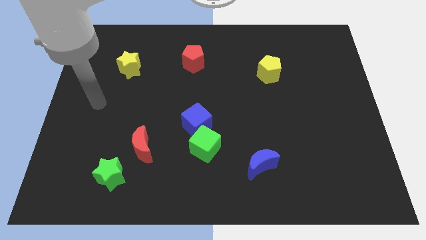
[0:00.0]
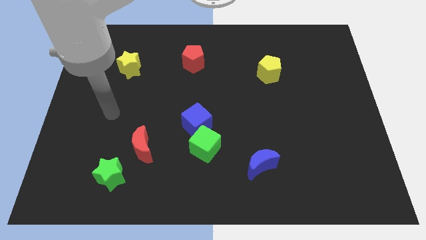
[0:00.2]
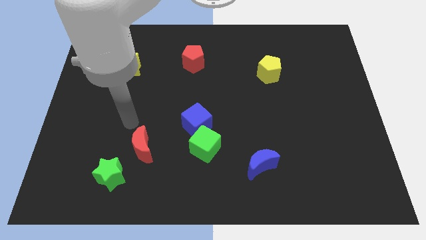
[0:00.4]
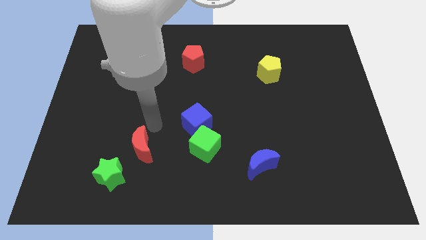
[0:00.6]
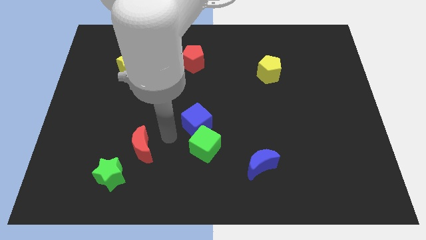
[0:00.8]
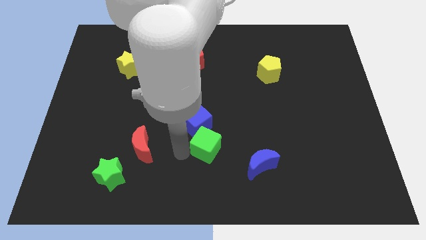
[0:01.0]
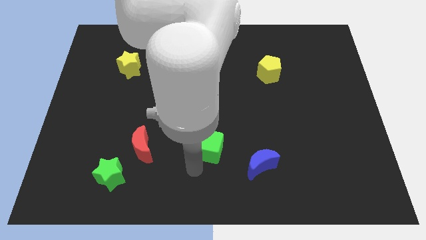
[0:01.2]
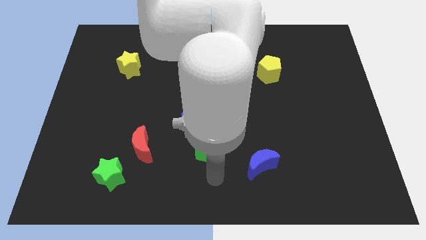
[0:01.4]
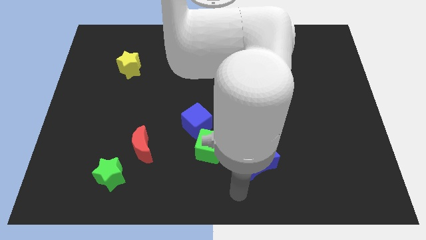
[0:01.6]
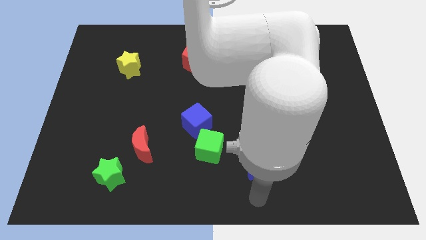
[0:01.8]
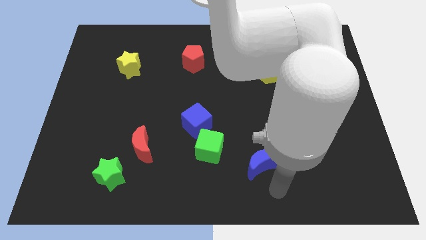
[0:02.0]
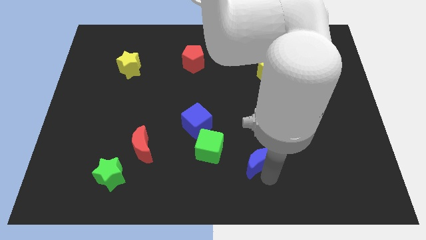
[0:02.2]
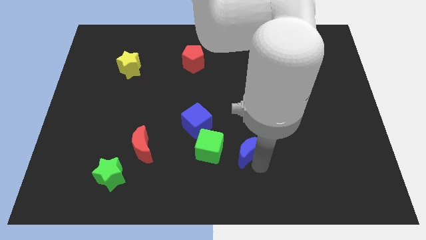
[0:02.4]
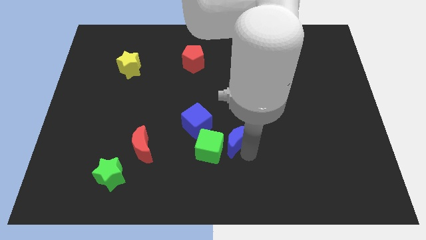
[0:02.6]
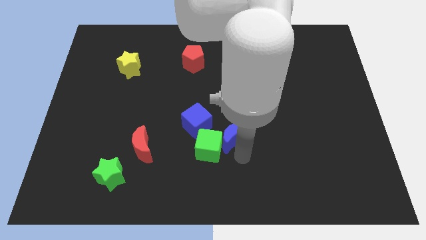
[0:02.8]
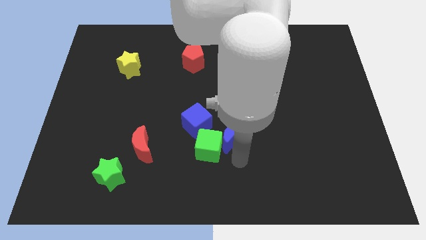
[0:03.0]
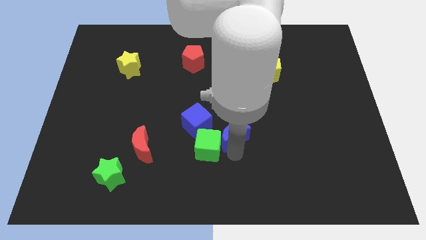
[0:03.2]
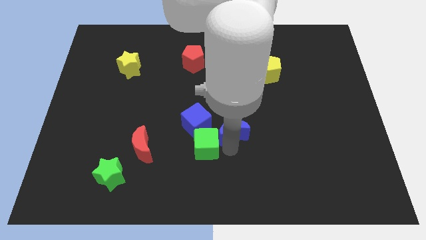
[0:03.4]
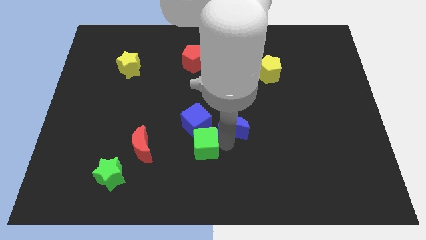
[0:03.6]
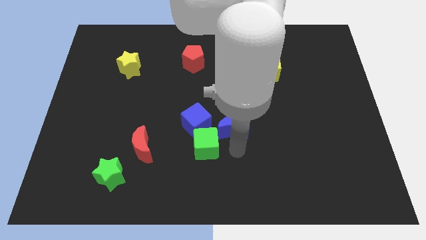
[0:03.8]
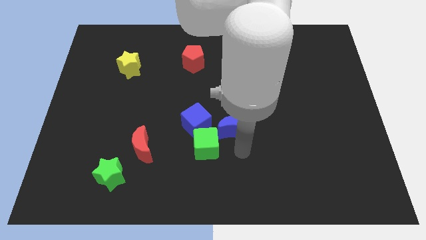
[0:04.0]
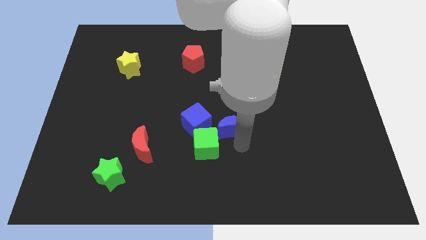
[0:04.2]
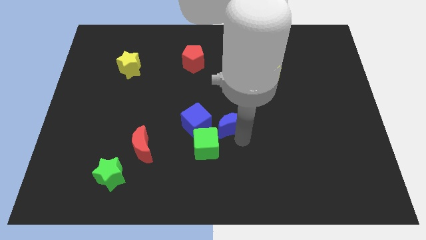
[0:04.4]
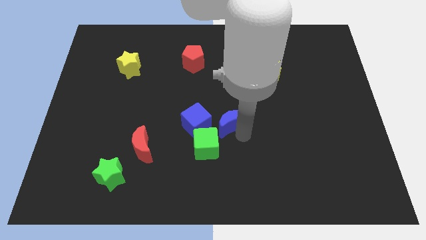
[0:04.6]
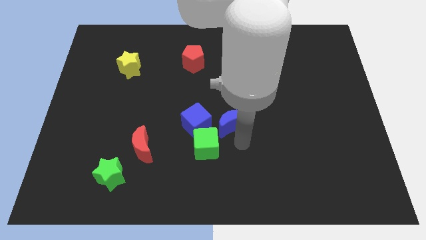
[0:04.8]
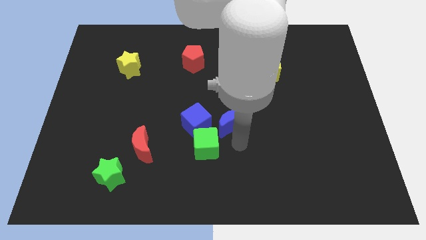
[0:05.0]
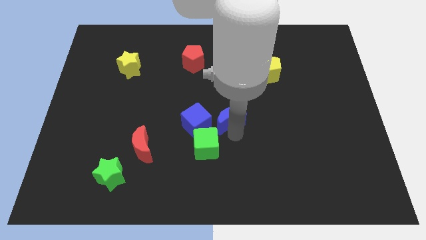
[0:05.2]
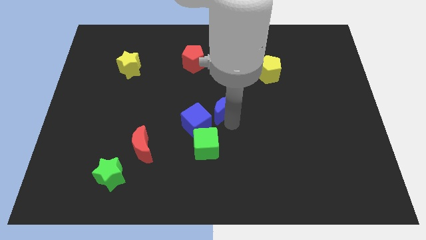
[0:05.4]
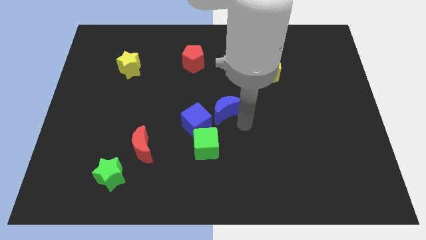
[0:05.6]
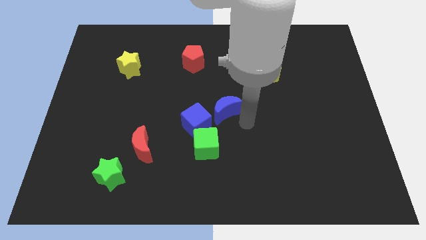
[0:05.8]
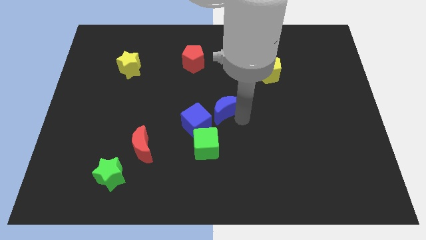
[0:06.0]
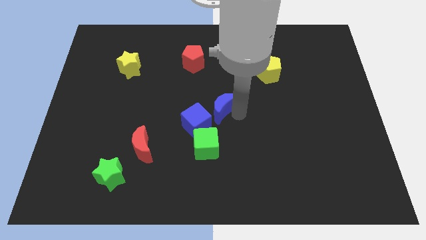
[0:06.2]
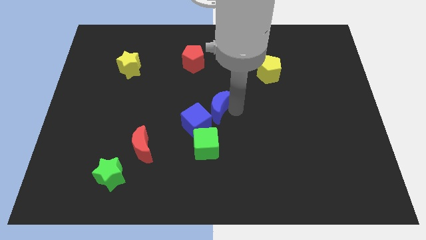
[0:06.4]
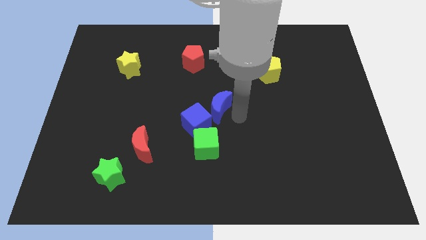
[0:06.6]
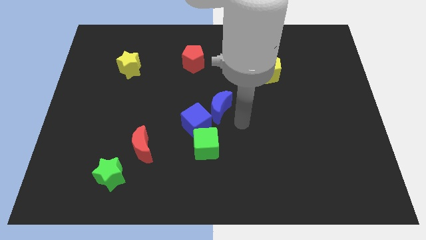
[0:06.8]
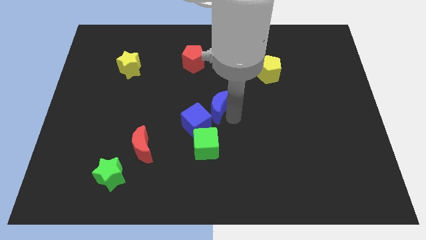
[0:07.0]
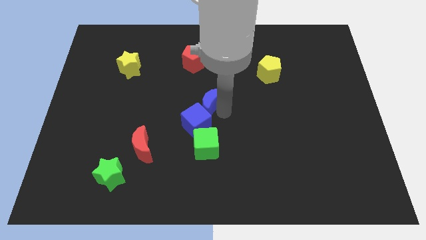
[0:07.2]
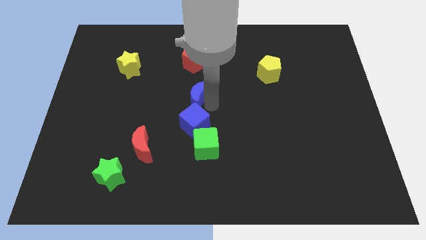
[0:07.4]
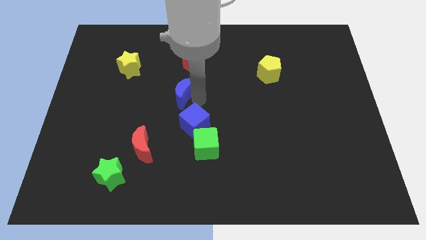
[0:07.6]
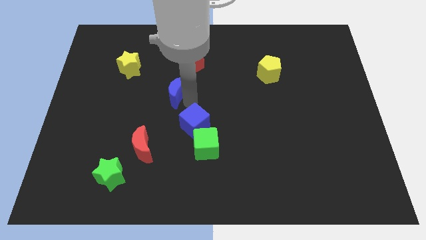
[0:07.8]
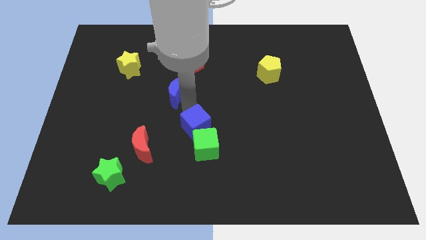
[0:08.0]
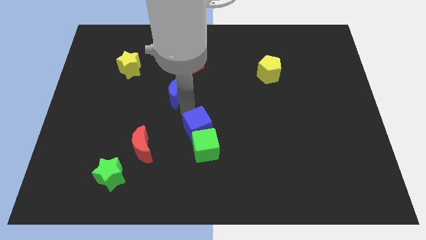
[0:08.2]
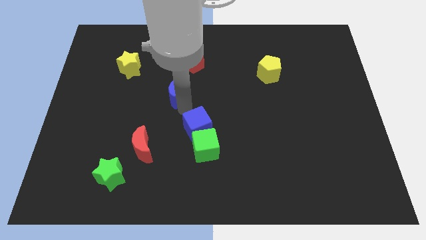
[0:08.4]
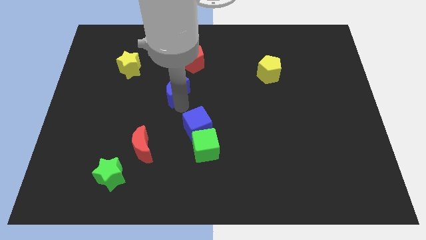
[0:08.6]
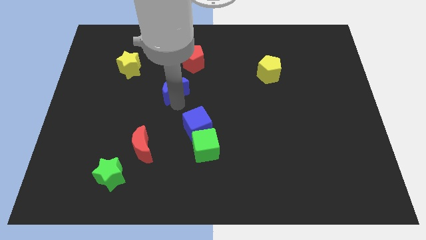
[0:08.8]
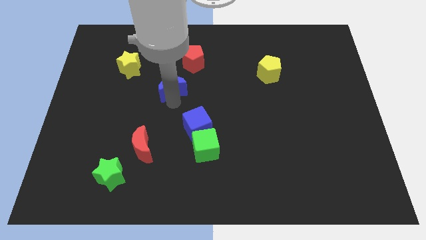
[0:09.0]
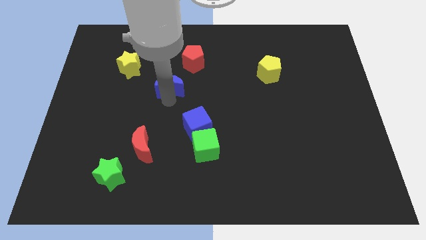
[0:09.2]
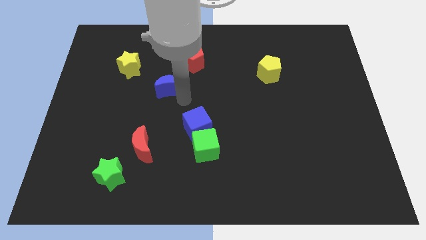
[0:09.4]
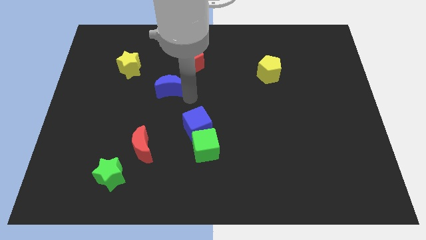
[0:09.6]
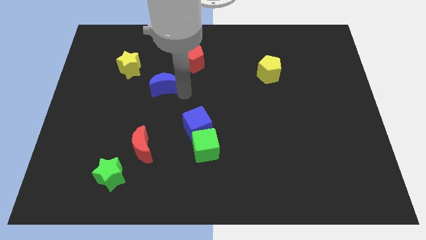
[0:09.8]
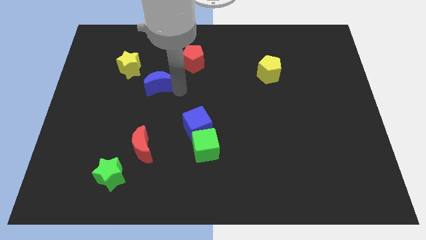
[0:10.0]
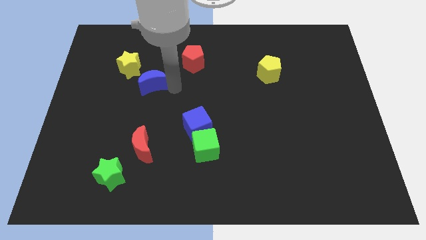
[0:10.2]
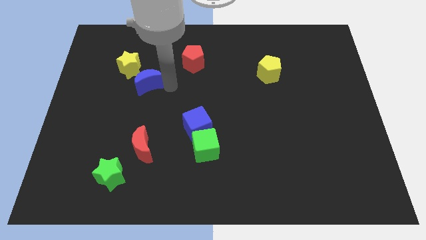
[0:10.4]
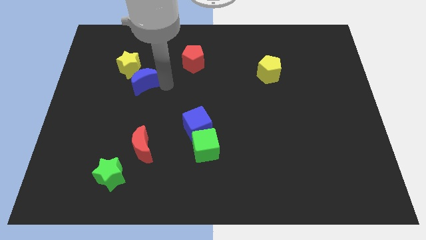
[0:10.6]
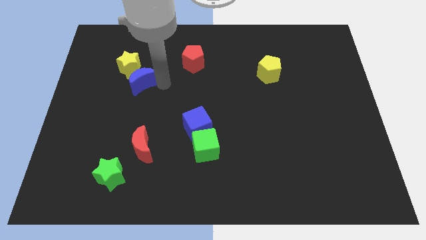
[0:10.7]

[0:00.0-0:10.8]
slide the blue moon to the yellow star

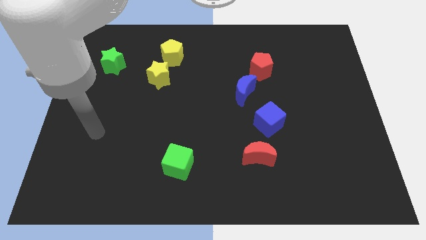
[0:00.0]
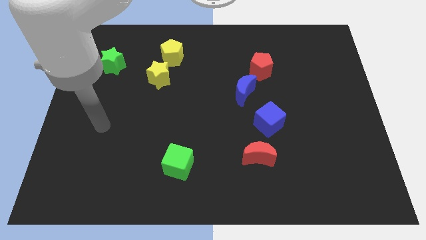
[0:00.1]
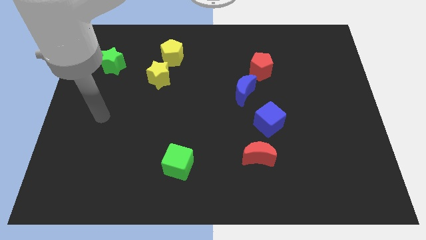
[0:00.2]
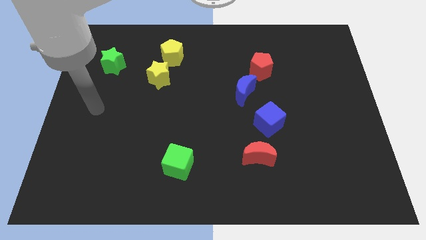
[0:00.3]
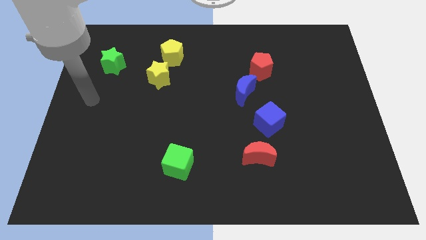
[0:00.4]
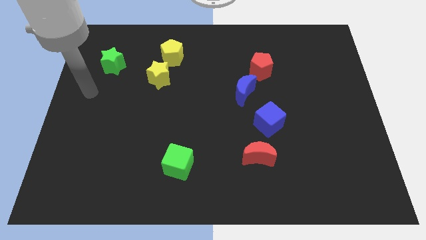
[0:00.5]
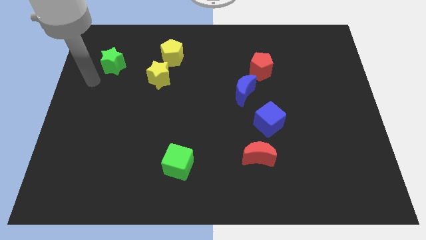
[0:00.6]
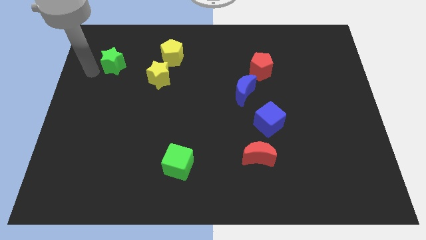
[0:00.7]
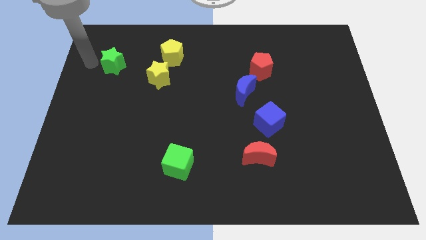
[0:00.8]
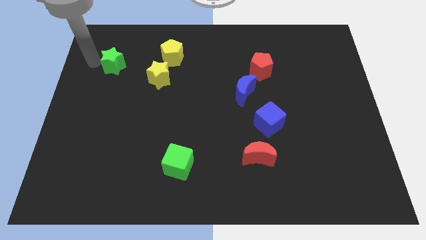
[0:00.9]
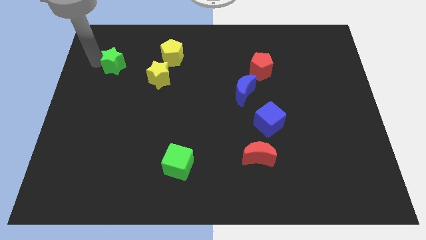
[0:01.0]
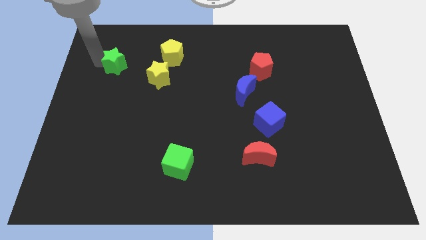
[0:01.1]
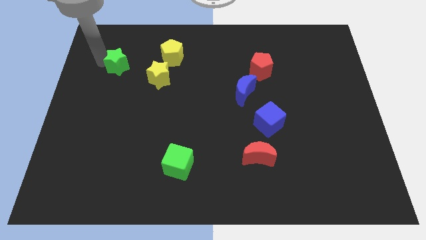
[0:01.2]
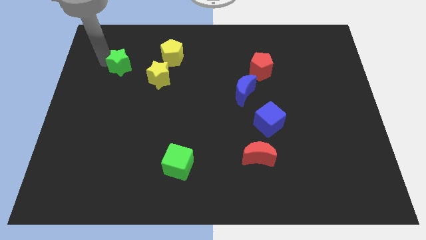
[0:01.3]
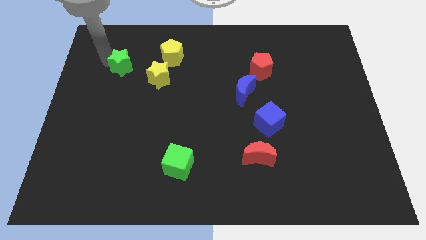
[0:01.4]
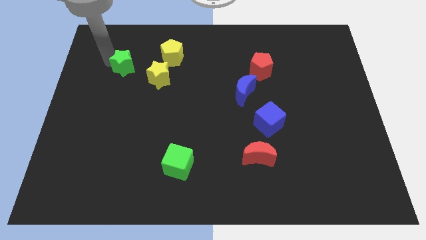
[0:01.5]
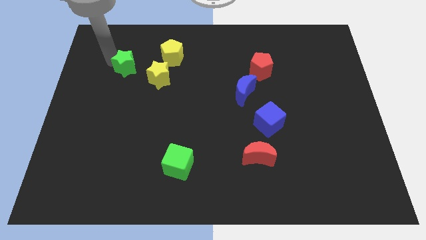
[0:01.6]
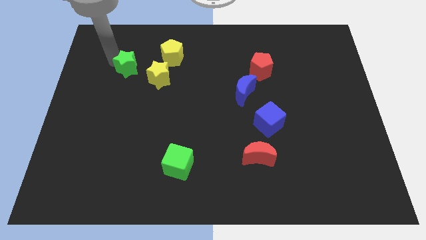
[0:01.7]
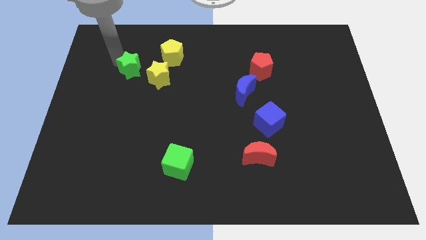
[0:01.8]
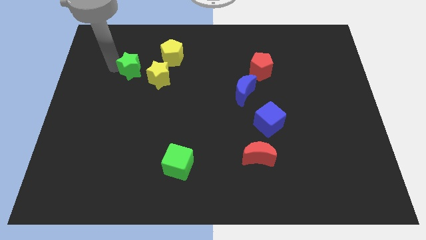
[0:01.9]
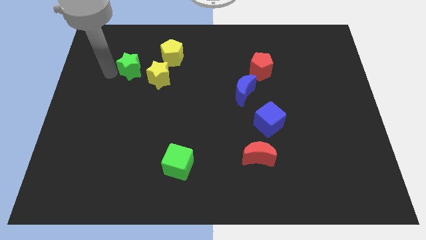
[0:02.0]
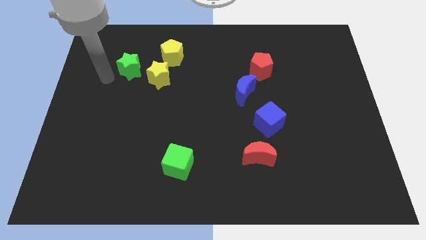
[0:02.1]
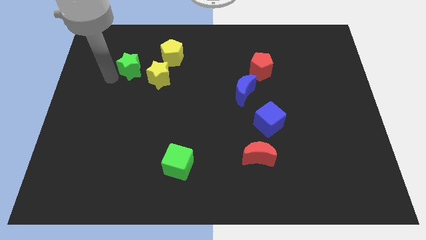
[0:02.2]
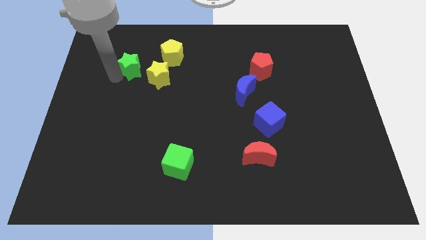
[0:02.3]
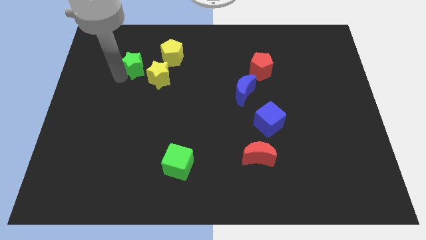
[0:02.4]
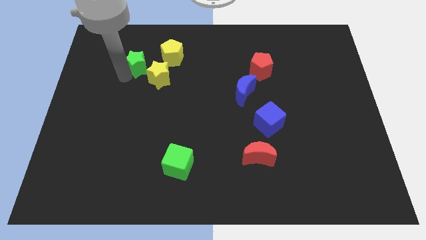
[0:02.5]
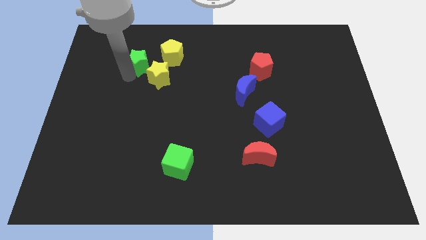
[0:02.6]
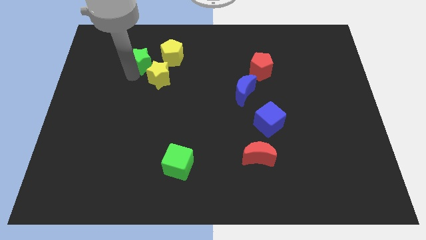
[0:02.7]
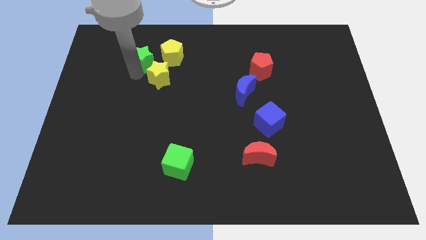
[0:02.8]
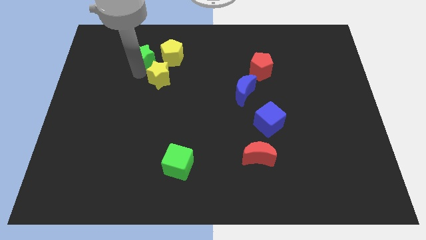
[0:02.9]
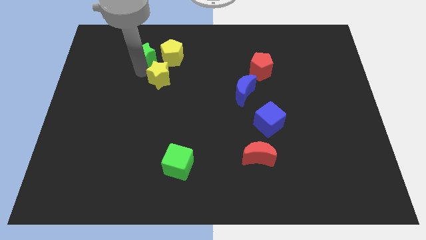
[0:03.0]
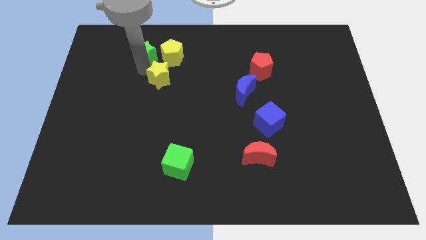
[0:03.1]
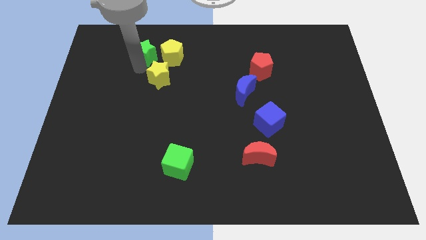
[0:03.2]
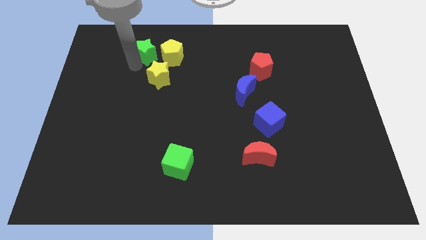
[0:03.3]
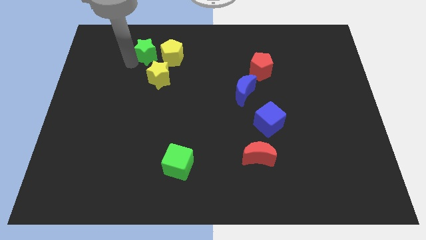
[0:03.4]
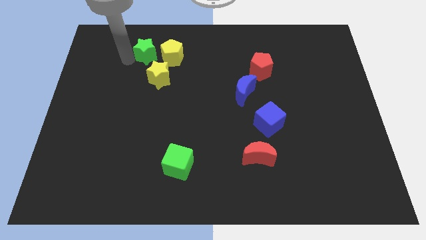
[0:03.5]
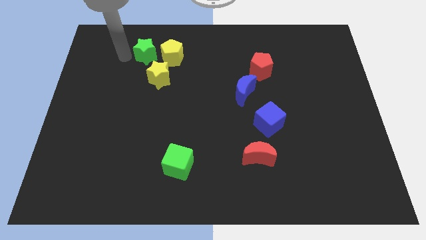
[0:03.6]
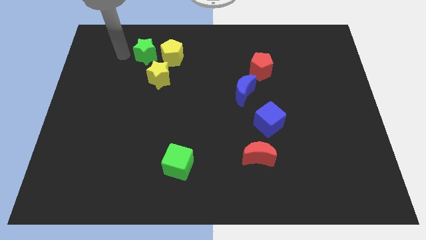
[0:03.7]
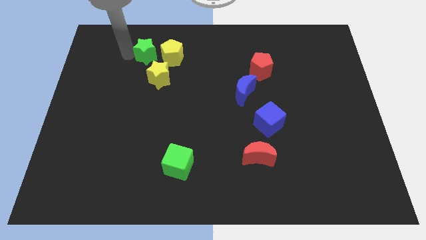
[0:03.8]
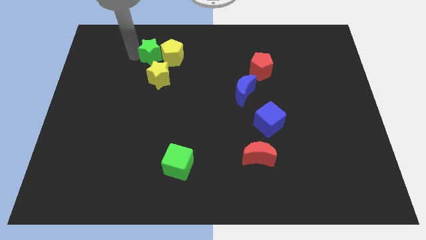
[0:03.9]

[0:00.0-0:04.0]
move the green star to the yellow pentagon
